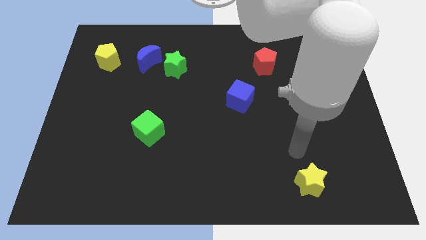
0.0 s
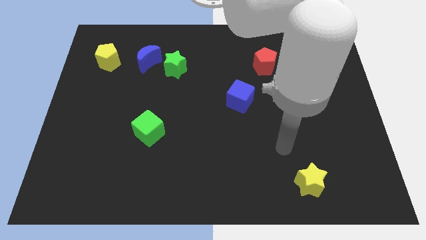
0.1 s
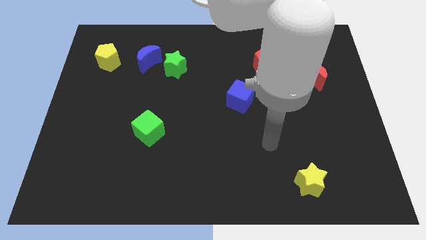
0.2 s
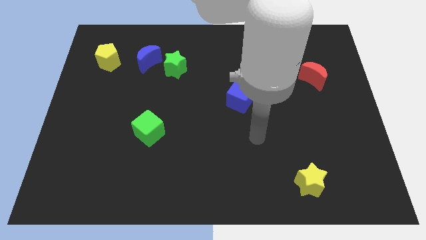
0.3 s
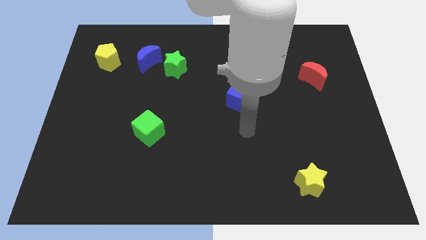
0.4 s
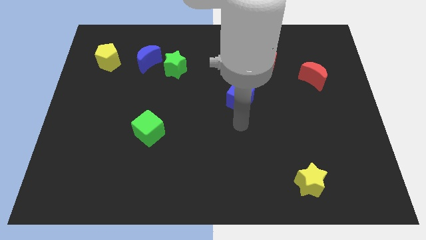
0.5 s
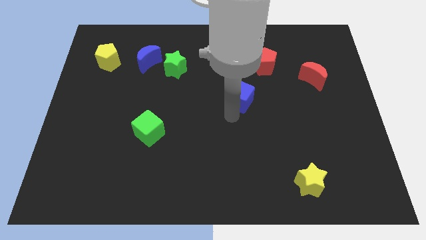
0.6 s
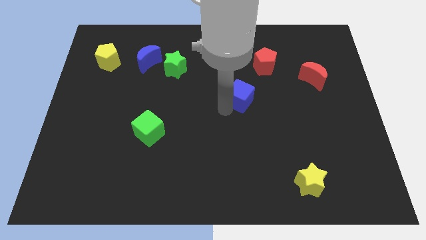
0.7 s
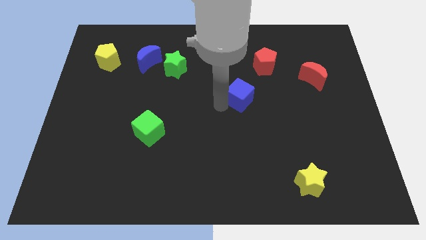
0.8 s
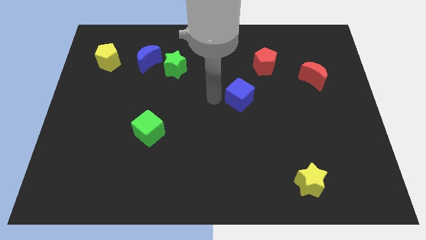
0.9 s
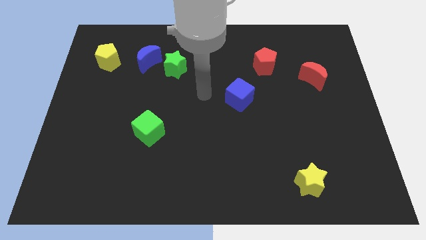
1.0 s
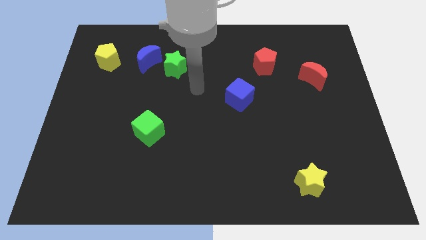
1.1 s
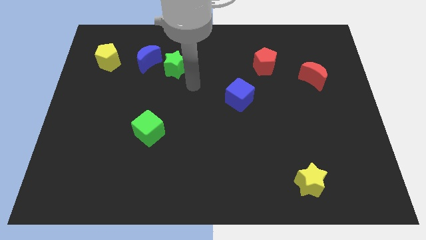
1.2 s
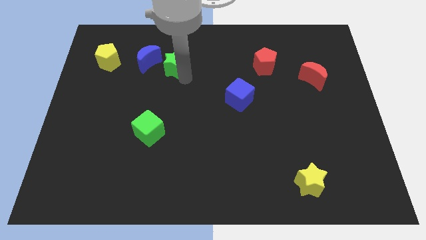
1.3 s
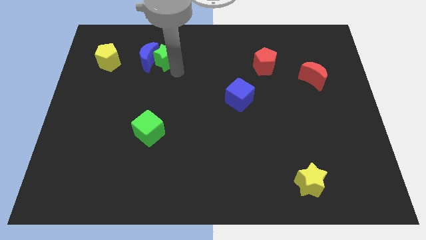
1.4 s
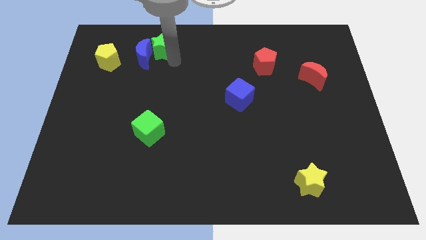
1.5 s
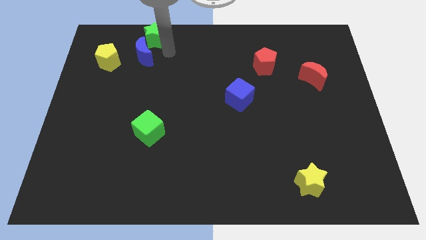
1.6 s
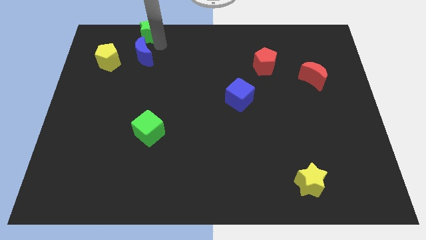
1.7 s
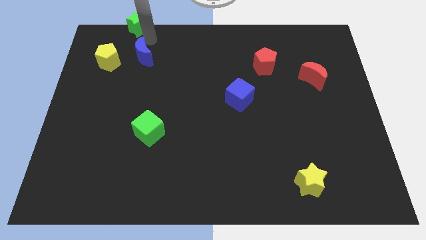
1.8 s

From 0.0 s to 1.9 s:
pull the blue moon apart from the green star

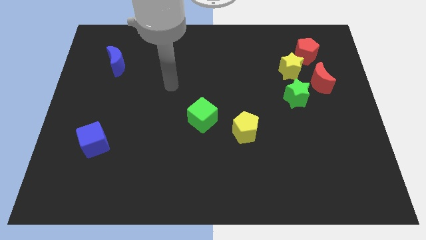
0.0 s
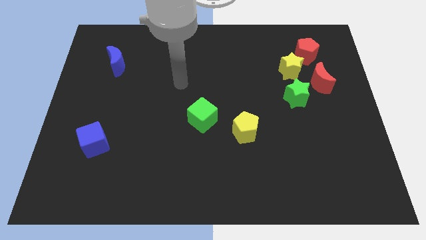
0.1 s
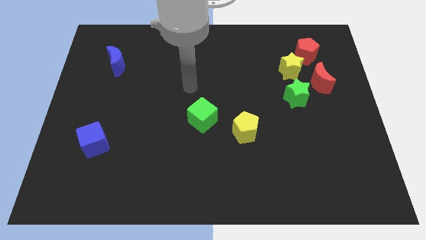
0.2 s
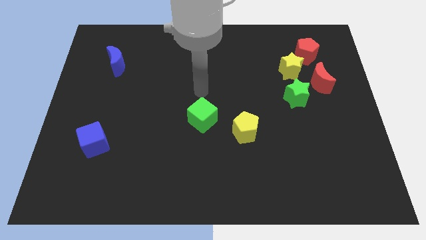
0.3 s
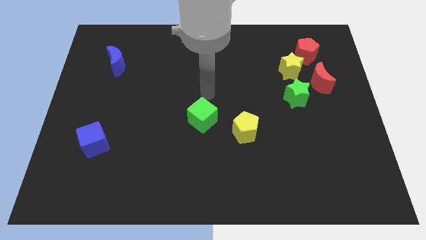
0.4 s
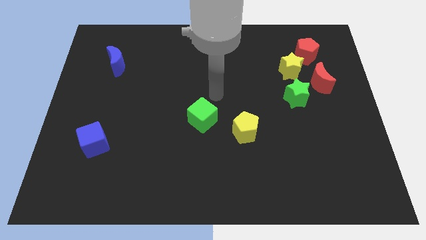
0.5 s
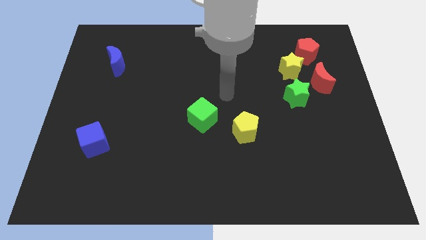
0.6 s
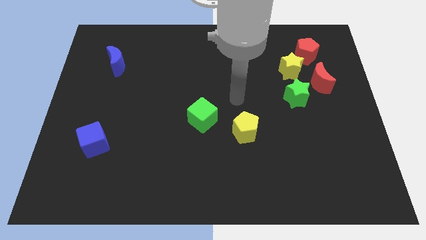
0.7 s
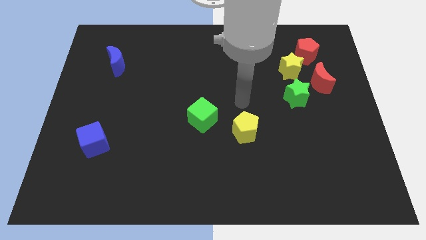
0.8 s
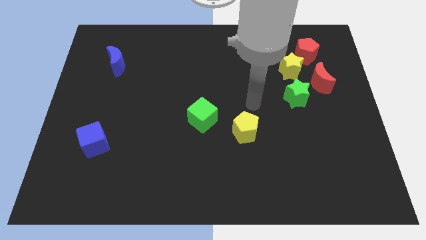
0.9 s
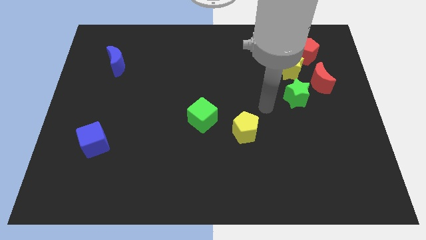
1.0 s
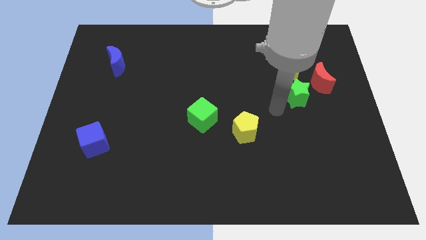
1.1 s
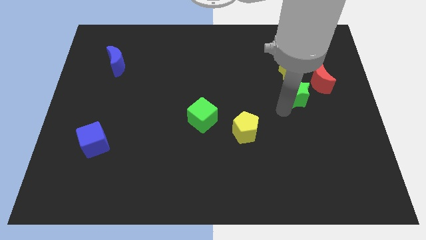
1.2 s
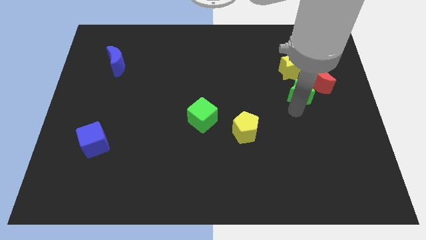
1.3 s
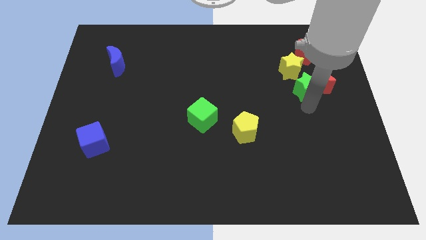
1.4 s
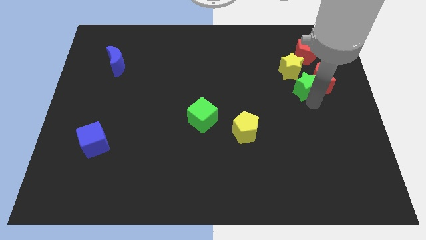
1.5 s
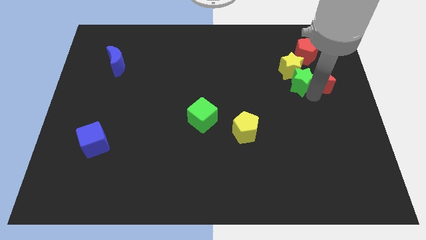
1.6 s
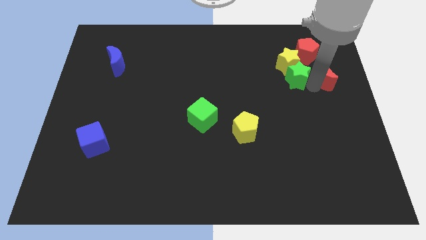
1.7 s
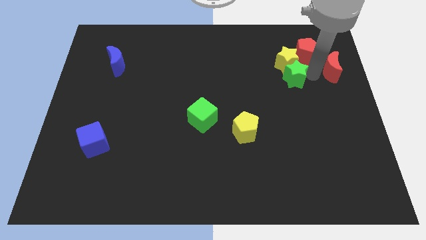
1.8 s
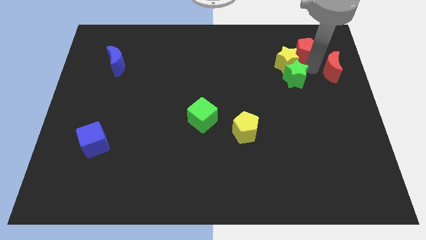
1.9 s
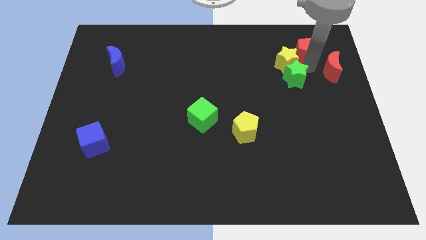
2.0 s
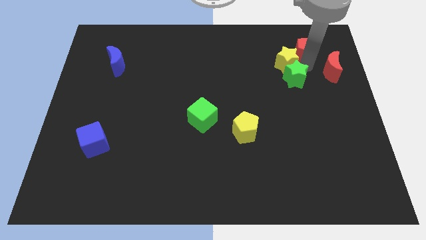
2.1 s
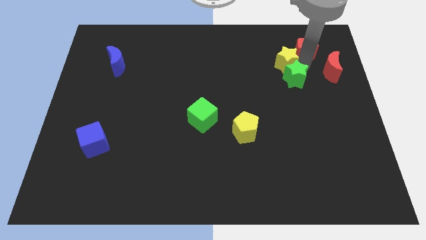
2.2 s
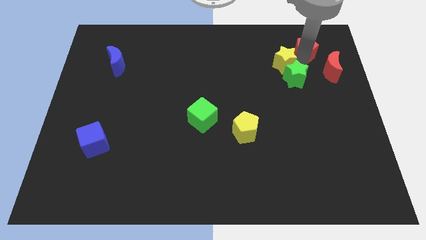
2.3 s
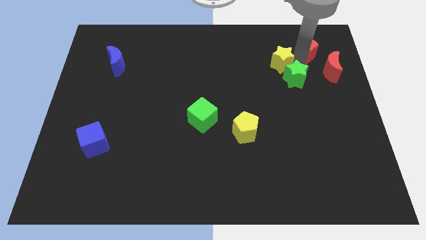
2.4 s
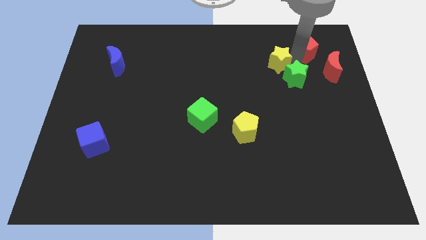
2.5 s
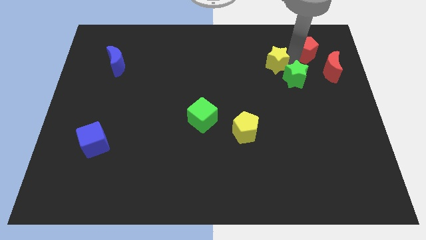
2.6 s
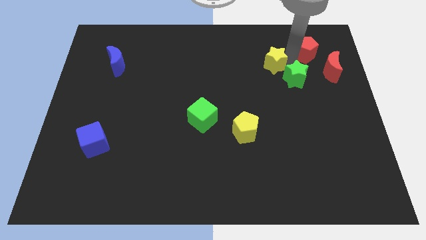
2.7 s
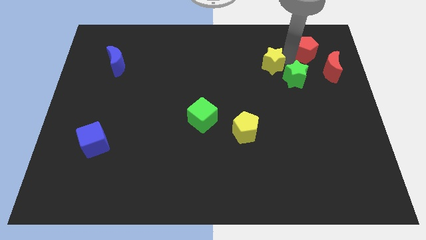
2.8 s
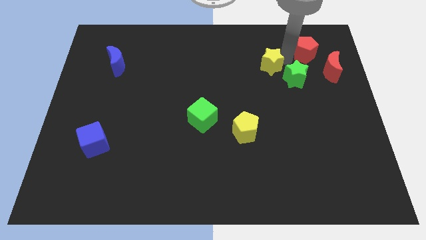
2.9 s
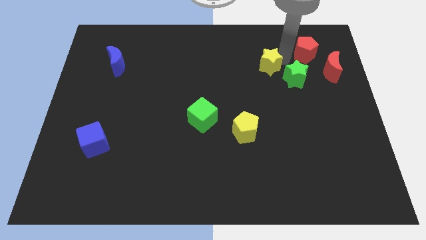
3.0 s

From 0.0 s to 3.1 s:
pull the yellow star apart from the clump

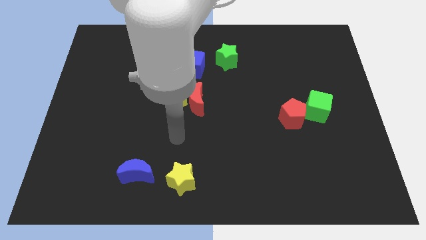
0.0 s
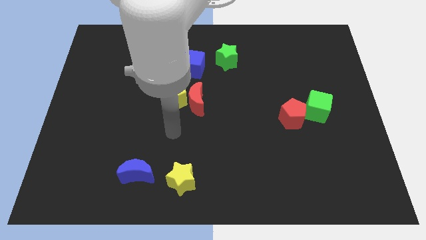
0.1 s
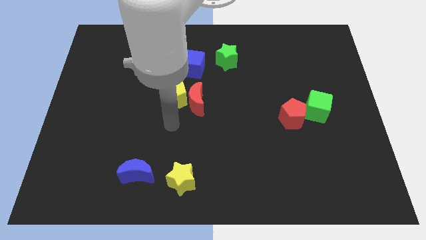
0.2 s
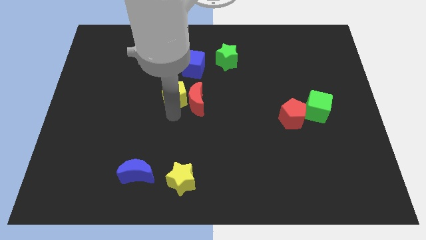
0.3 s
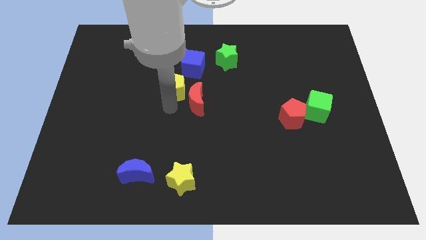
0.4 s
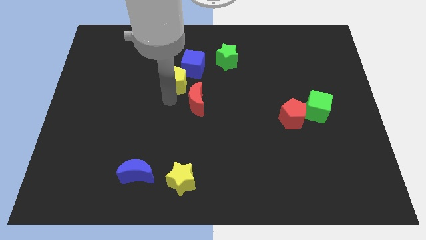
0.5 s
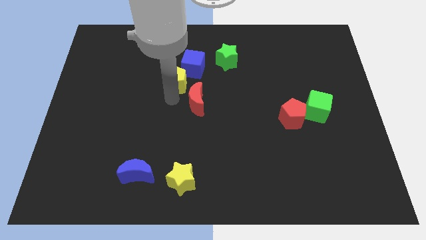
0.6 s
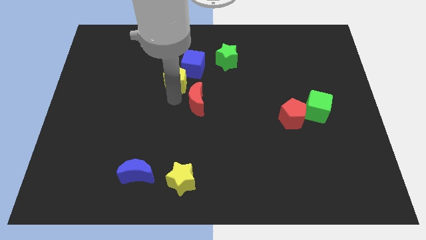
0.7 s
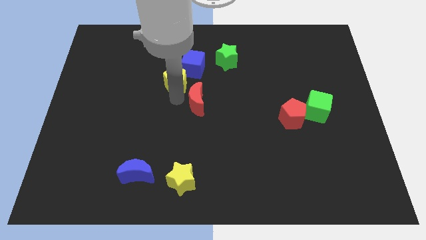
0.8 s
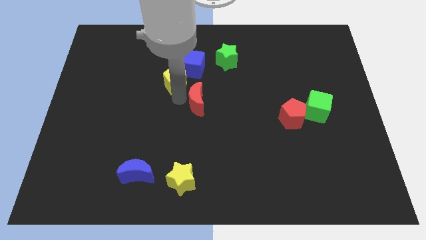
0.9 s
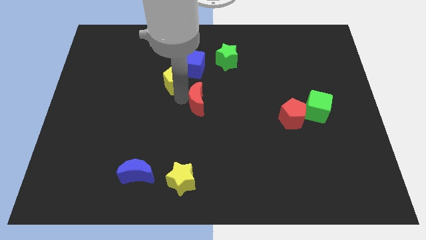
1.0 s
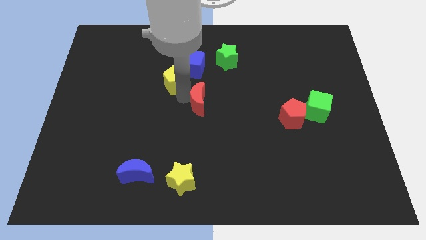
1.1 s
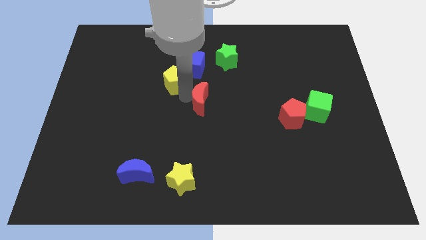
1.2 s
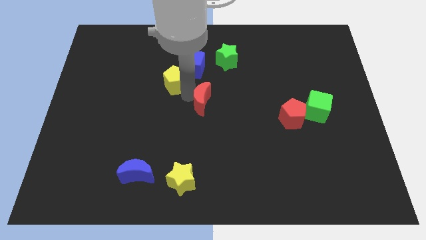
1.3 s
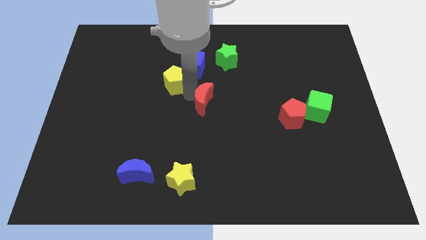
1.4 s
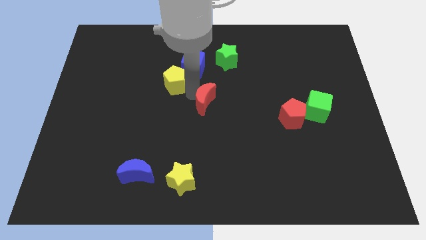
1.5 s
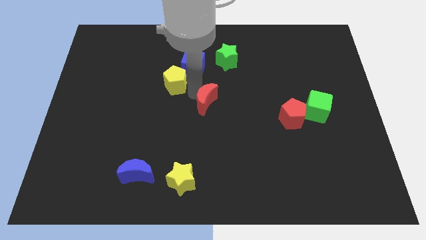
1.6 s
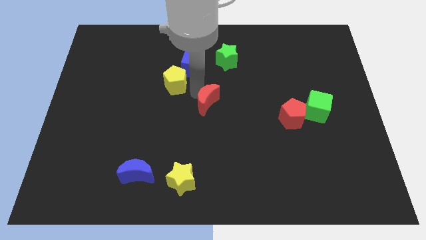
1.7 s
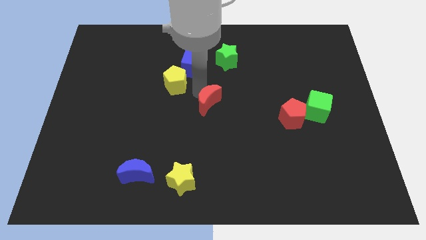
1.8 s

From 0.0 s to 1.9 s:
pull the red moon apart from the yellow pentagon

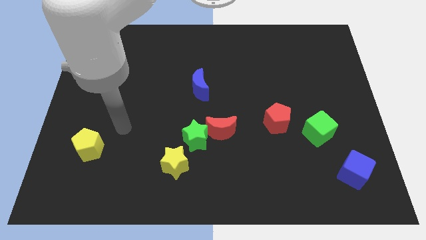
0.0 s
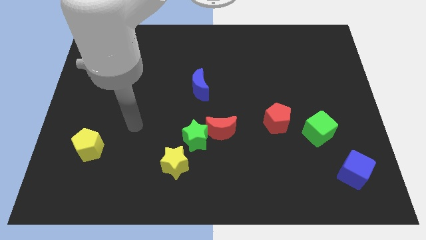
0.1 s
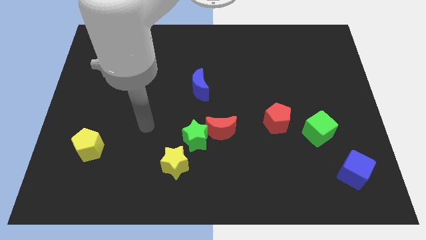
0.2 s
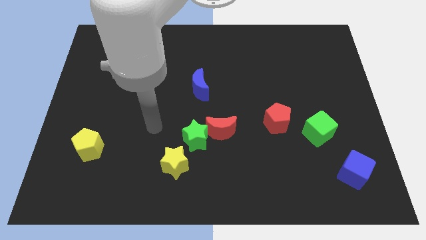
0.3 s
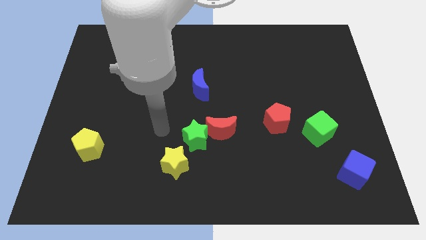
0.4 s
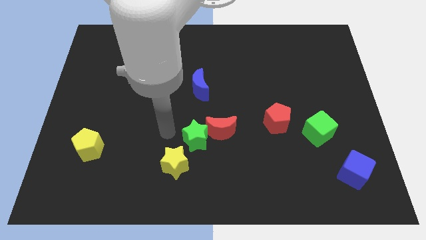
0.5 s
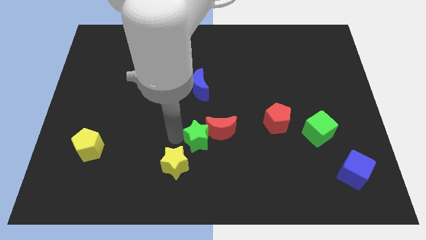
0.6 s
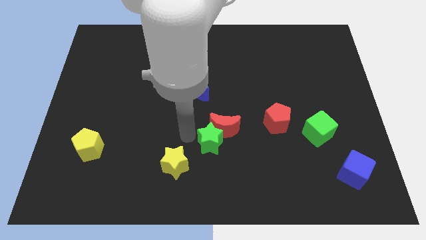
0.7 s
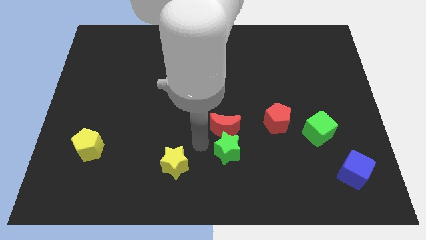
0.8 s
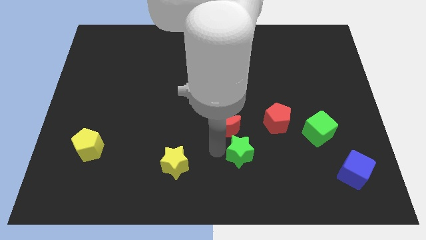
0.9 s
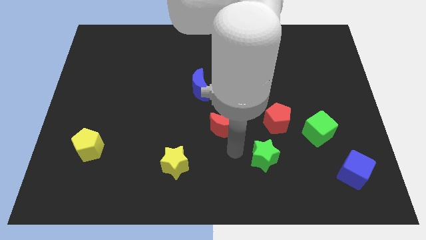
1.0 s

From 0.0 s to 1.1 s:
pull the red moon apart from the green star

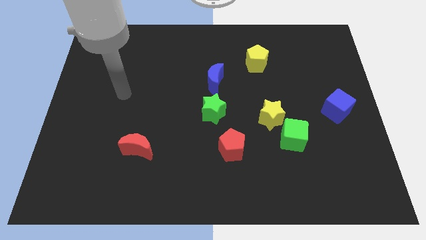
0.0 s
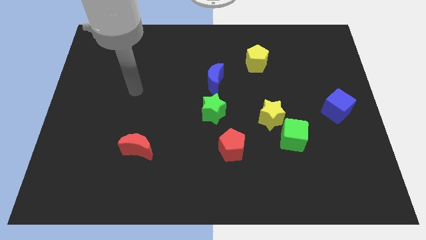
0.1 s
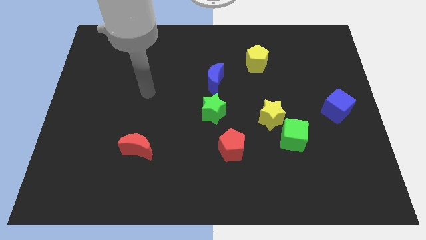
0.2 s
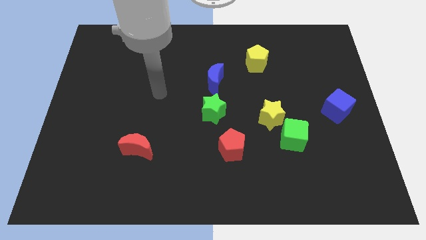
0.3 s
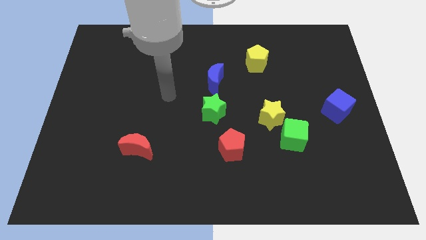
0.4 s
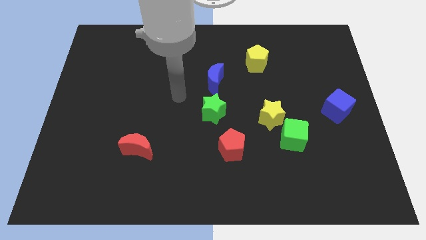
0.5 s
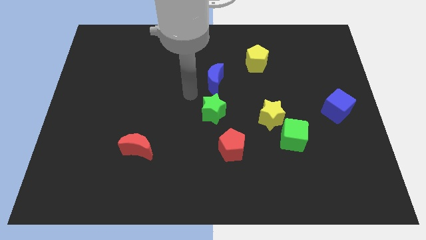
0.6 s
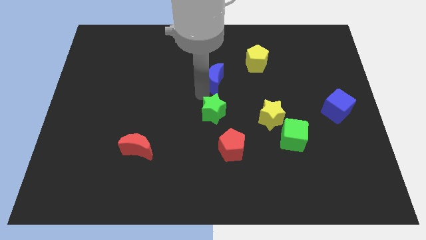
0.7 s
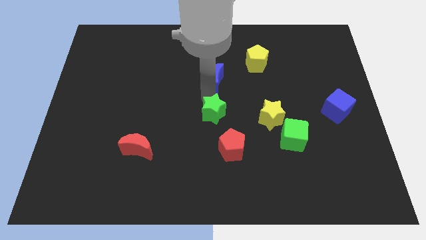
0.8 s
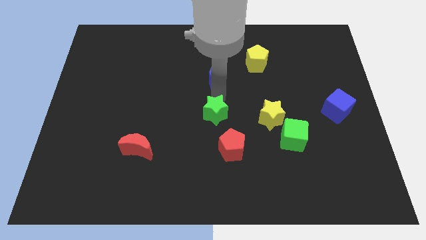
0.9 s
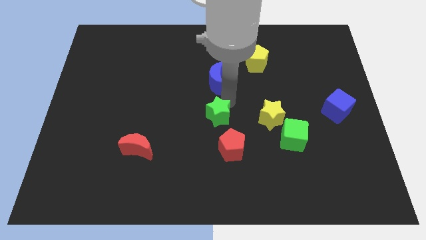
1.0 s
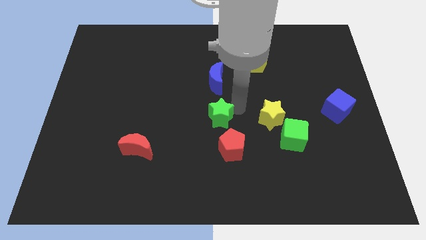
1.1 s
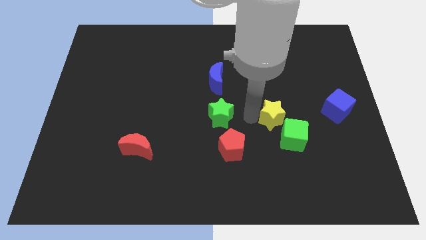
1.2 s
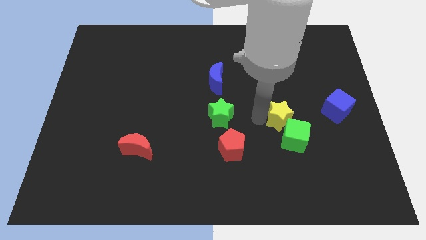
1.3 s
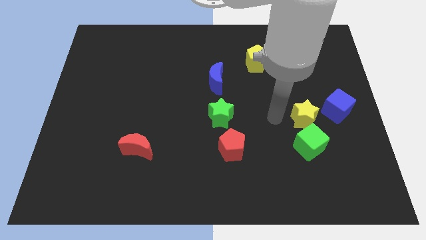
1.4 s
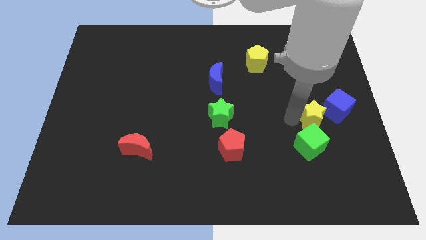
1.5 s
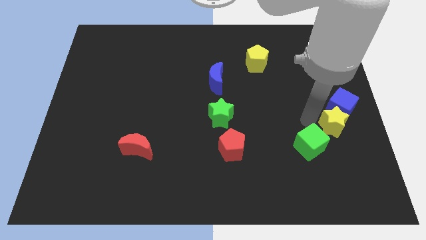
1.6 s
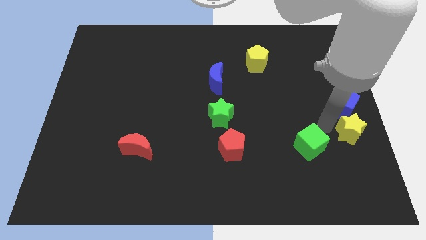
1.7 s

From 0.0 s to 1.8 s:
move the green cube away from the yellow star
